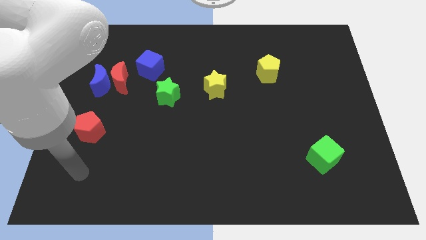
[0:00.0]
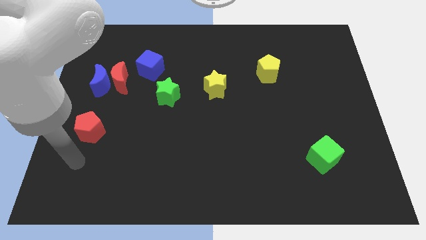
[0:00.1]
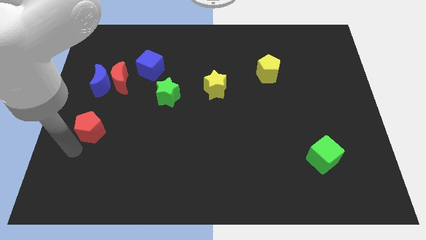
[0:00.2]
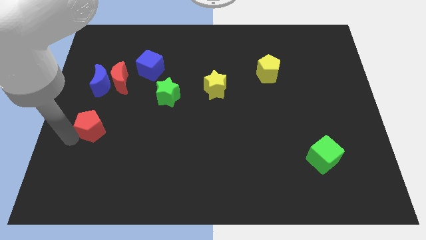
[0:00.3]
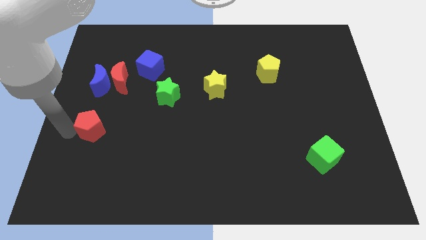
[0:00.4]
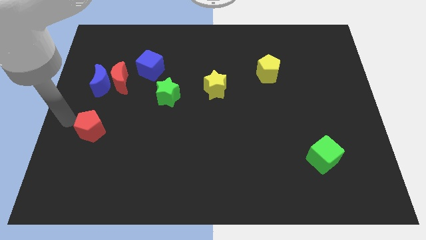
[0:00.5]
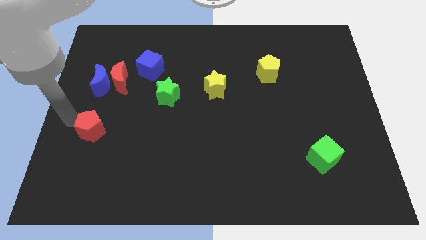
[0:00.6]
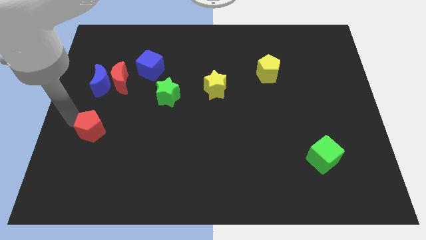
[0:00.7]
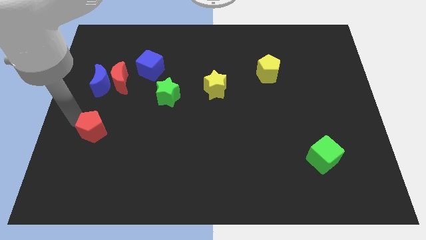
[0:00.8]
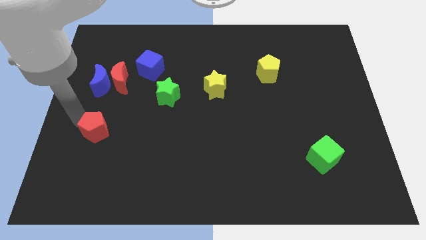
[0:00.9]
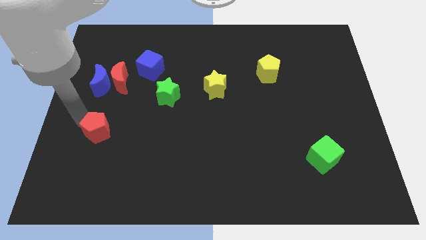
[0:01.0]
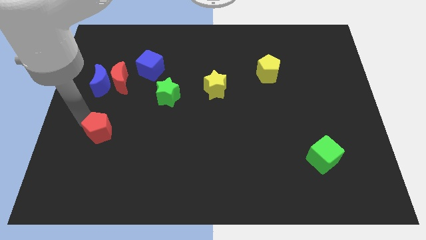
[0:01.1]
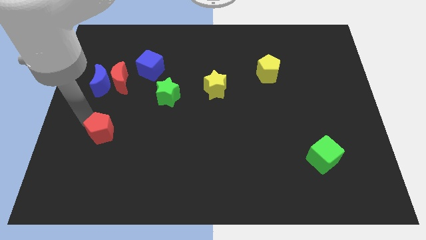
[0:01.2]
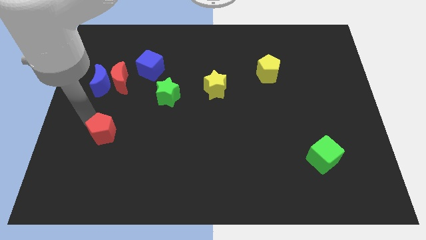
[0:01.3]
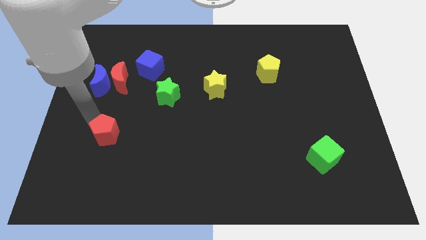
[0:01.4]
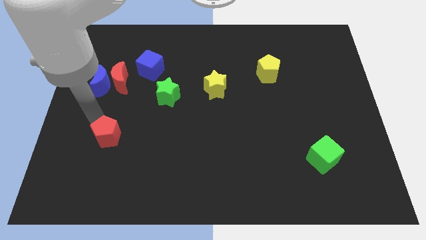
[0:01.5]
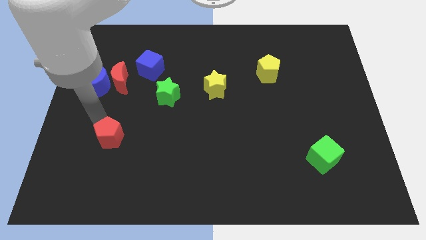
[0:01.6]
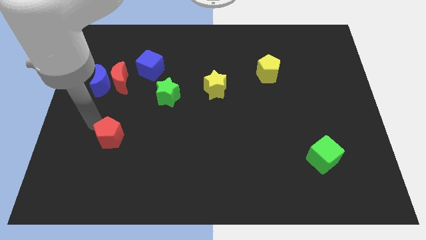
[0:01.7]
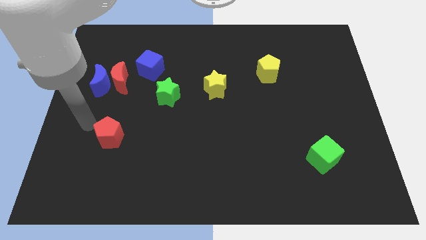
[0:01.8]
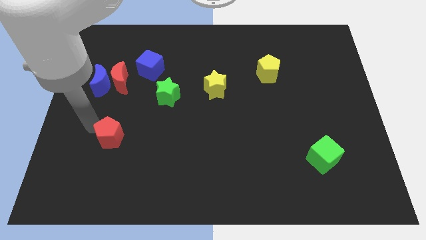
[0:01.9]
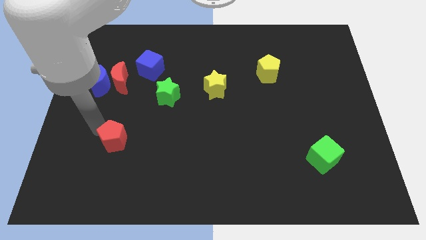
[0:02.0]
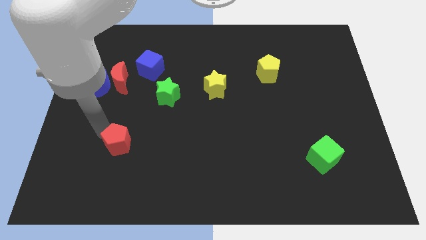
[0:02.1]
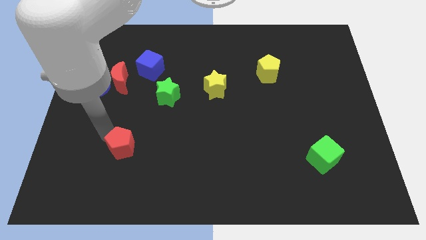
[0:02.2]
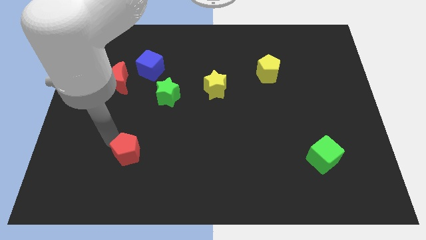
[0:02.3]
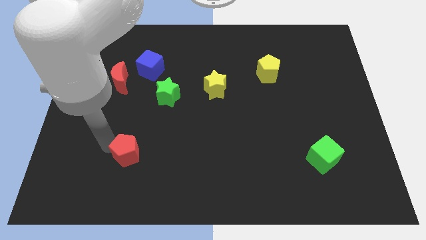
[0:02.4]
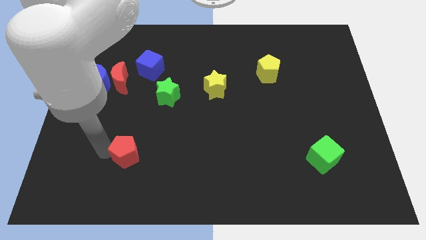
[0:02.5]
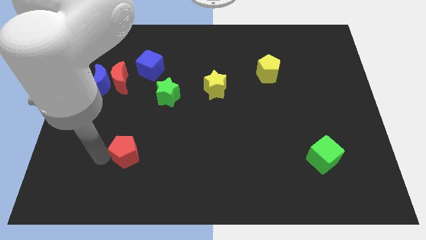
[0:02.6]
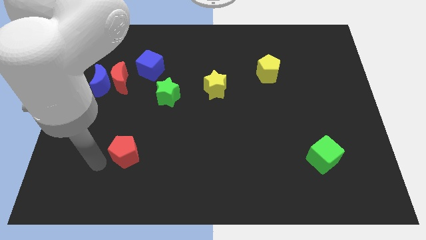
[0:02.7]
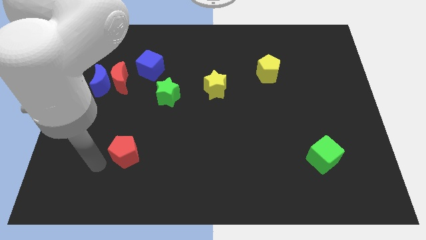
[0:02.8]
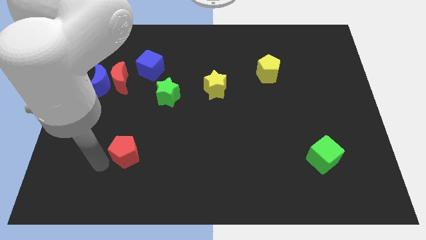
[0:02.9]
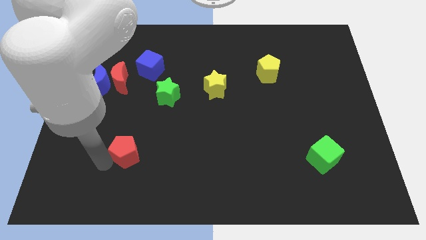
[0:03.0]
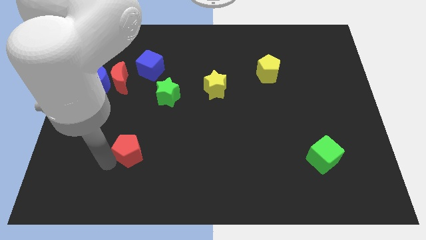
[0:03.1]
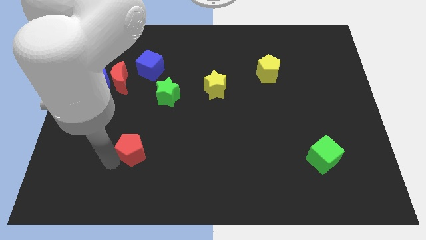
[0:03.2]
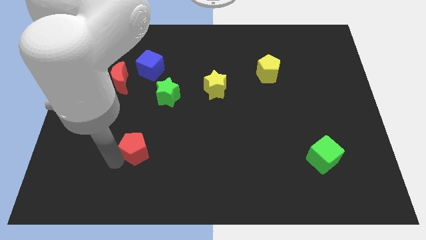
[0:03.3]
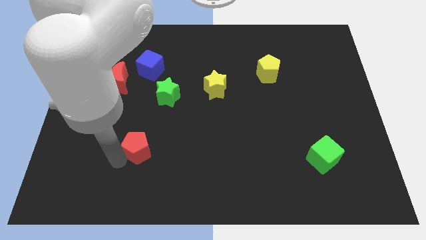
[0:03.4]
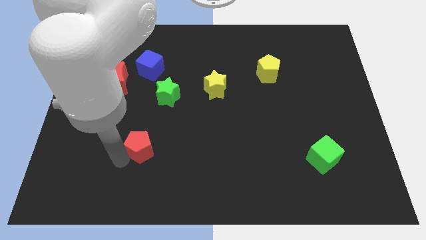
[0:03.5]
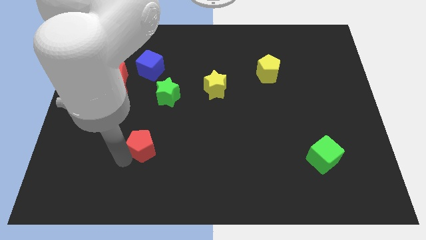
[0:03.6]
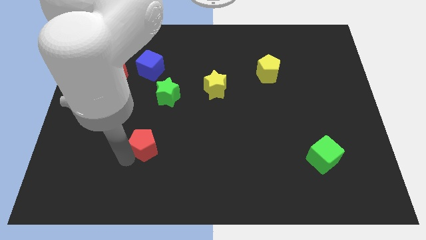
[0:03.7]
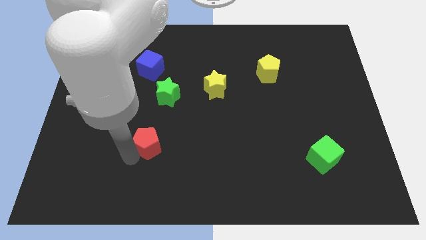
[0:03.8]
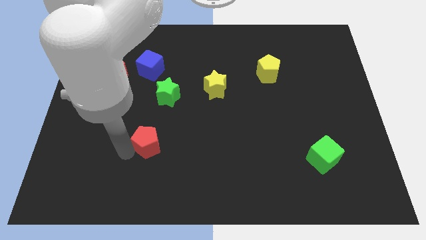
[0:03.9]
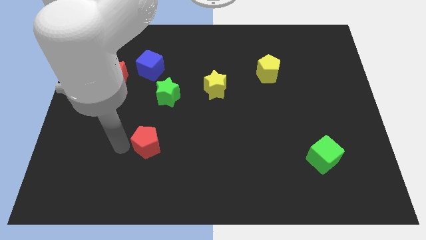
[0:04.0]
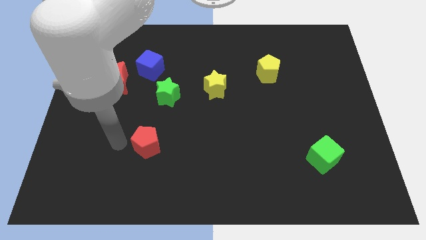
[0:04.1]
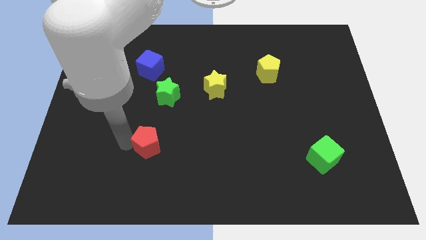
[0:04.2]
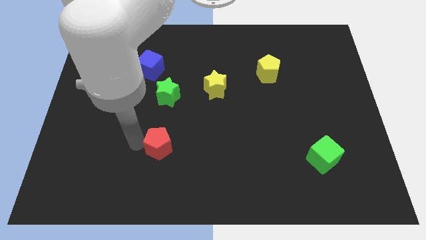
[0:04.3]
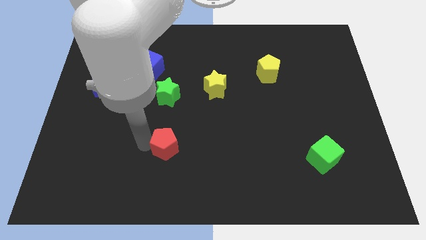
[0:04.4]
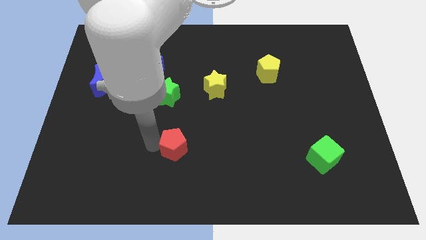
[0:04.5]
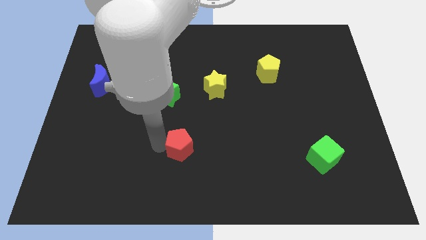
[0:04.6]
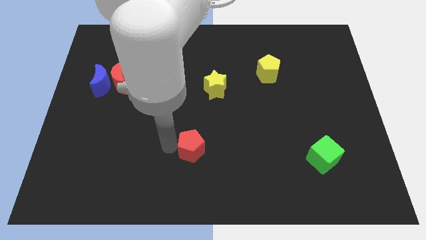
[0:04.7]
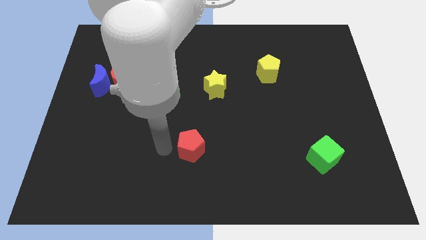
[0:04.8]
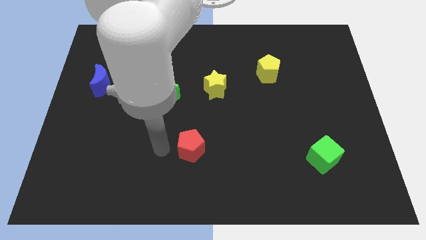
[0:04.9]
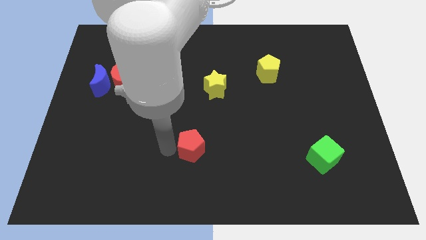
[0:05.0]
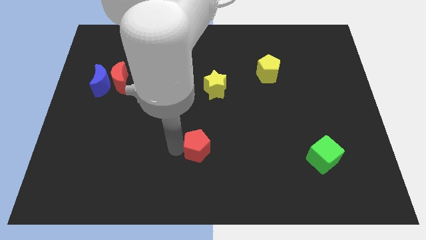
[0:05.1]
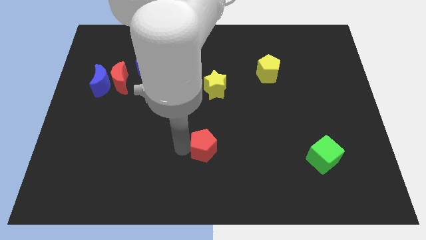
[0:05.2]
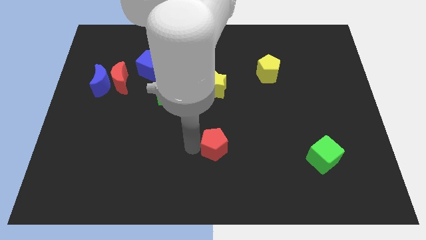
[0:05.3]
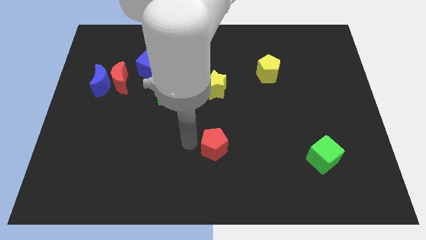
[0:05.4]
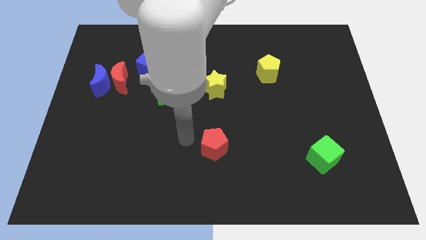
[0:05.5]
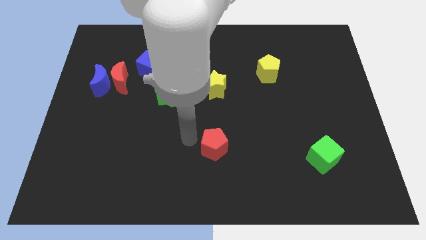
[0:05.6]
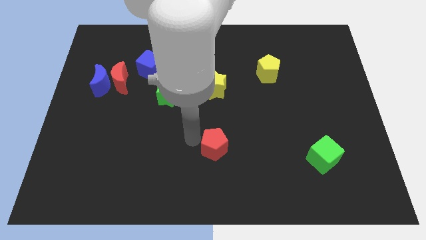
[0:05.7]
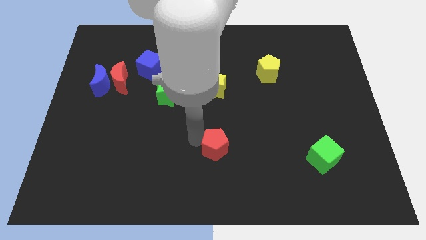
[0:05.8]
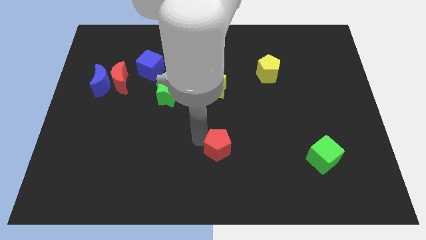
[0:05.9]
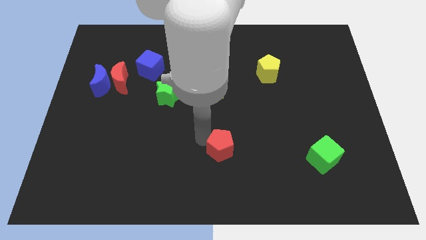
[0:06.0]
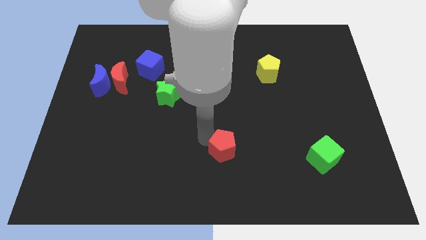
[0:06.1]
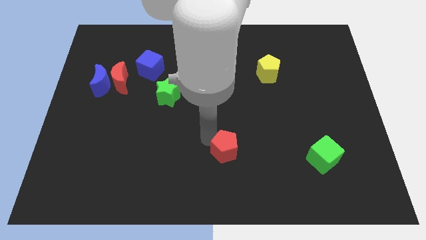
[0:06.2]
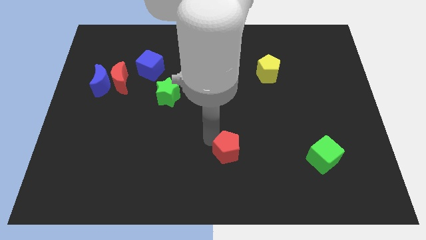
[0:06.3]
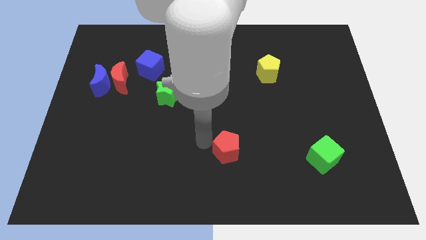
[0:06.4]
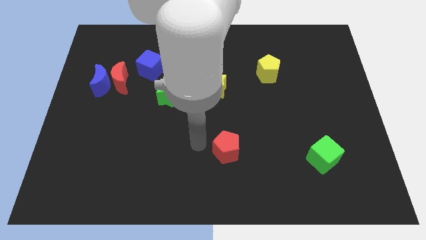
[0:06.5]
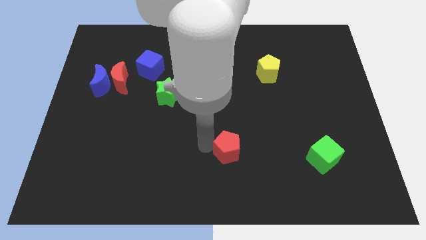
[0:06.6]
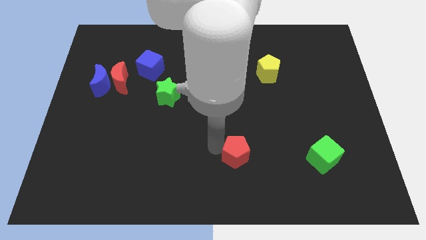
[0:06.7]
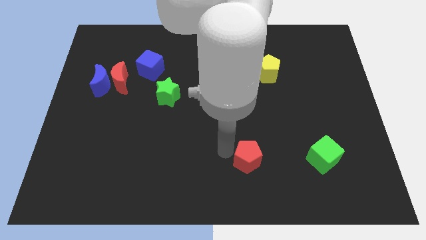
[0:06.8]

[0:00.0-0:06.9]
slide the red pentagon to the left side of the green cube

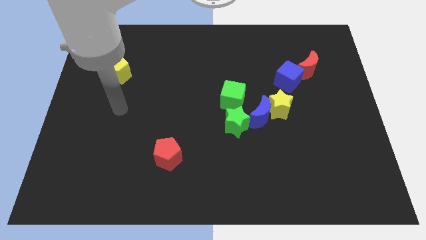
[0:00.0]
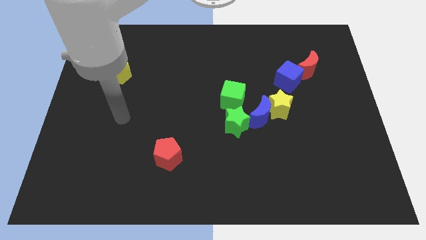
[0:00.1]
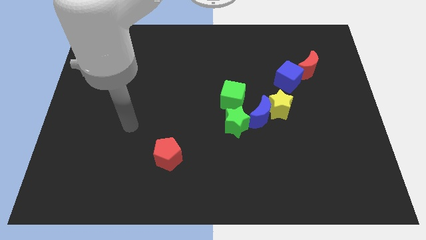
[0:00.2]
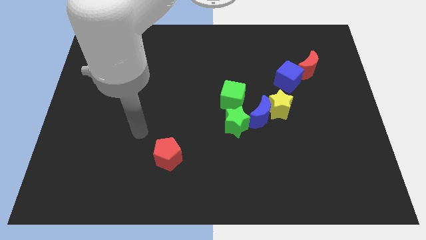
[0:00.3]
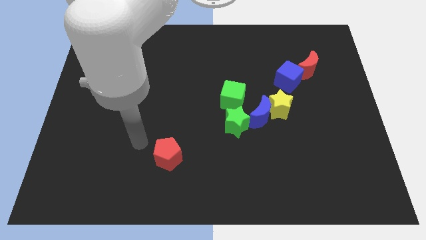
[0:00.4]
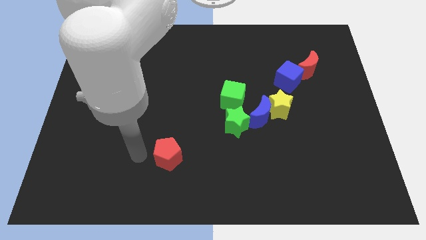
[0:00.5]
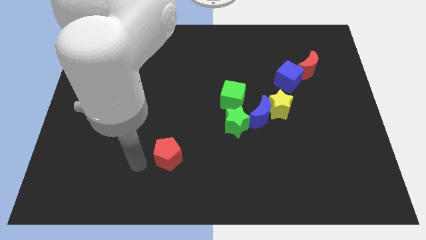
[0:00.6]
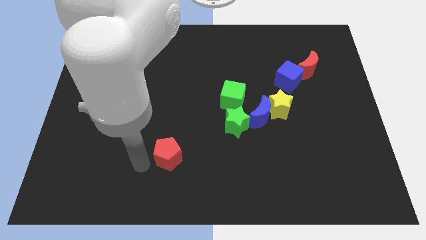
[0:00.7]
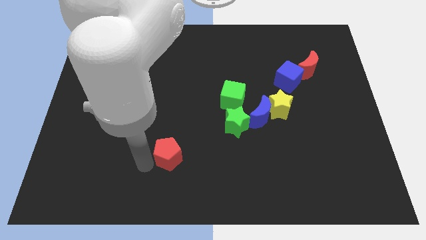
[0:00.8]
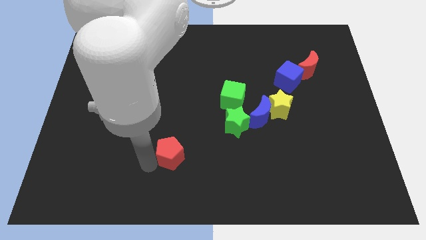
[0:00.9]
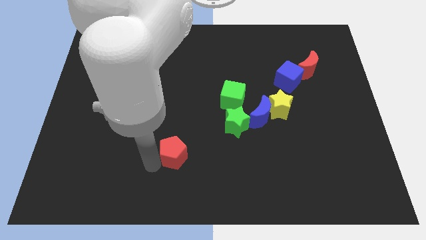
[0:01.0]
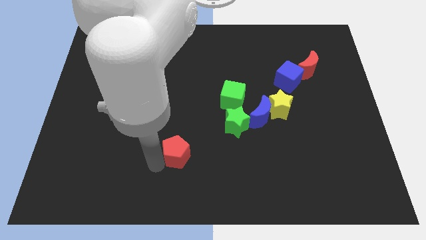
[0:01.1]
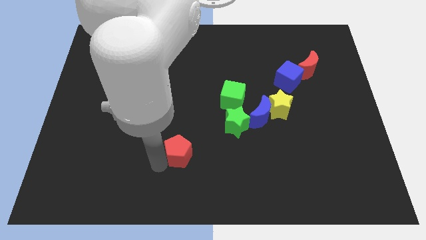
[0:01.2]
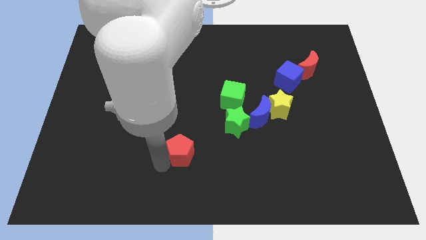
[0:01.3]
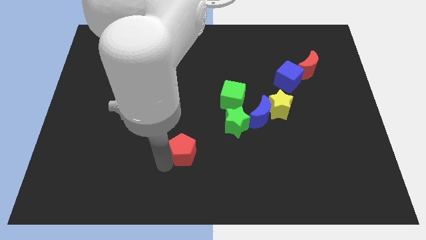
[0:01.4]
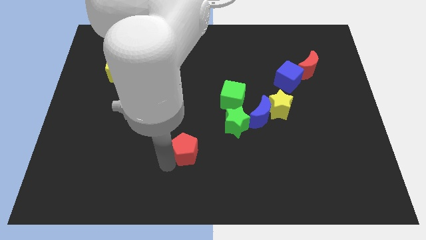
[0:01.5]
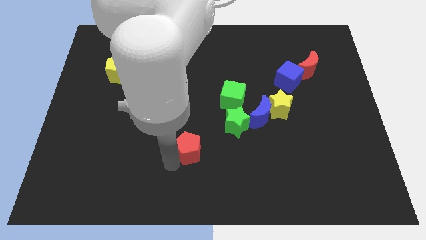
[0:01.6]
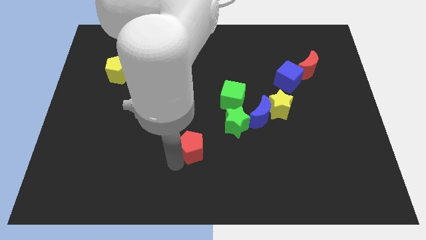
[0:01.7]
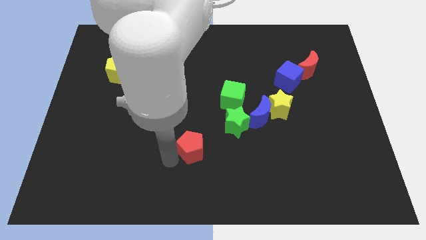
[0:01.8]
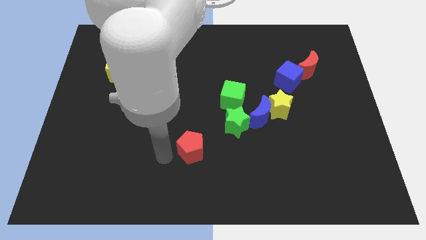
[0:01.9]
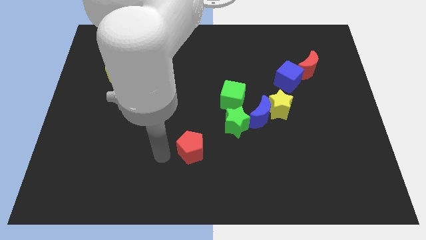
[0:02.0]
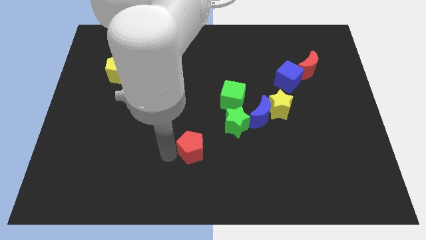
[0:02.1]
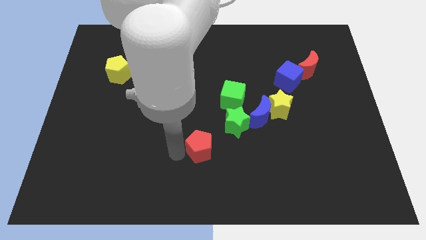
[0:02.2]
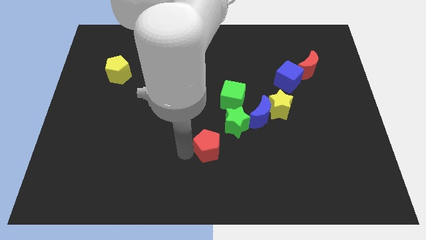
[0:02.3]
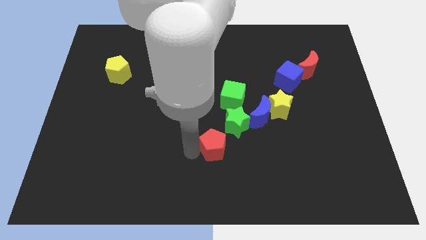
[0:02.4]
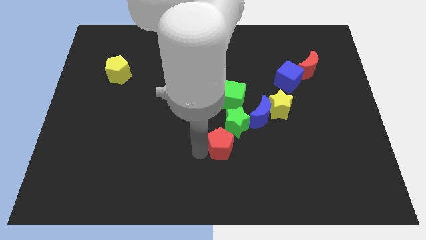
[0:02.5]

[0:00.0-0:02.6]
move the red pentagon diagonally down and to the left of the blue moon
